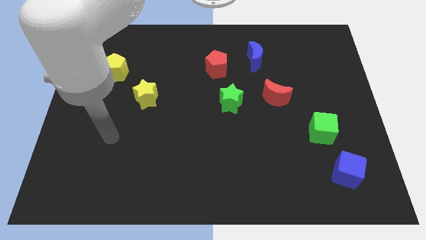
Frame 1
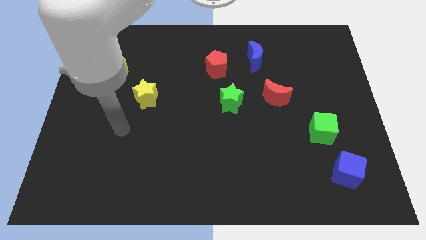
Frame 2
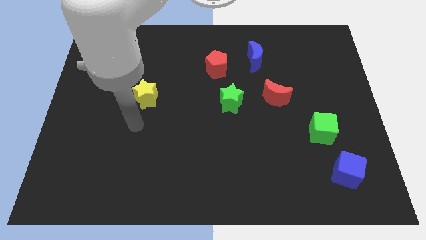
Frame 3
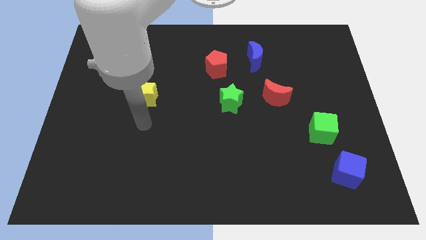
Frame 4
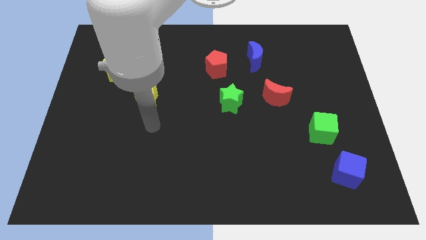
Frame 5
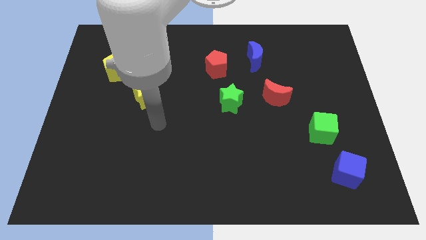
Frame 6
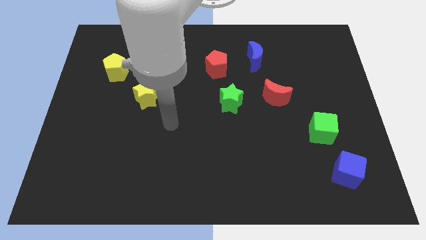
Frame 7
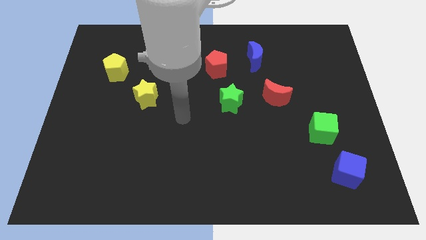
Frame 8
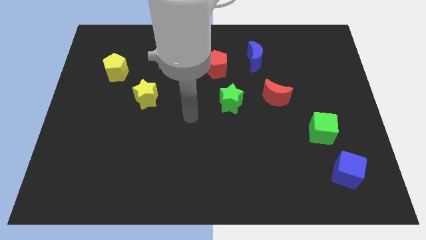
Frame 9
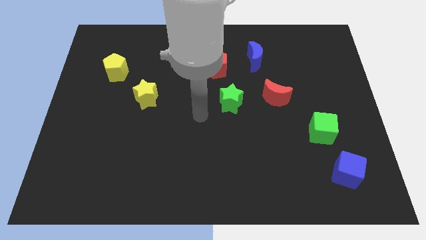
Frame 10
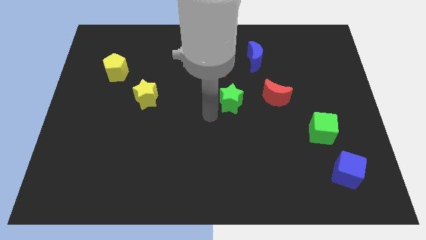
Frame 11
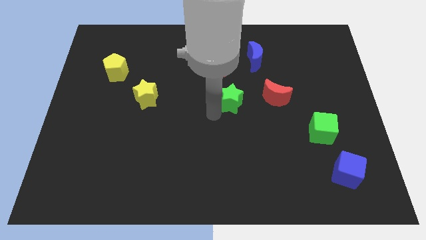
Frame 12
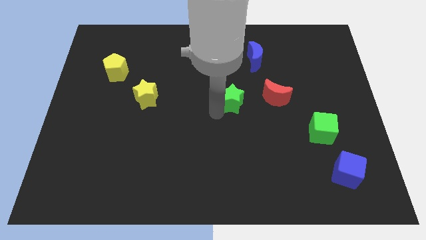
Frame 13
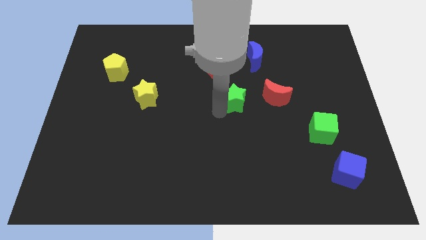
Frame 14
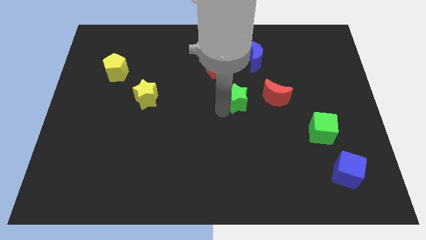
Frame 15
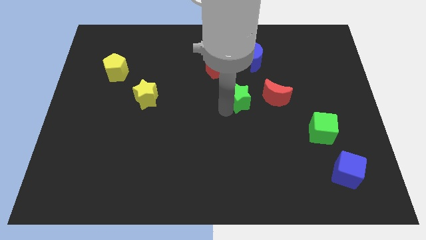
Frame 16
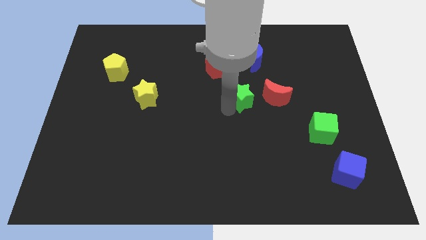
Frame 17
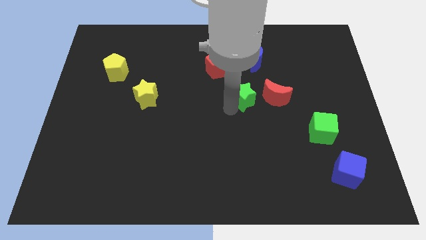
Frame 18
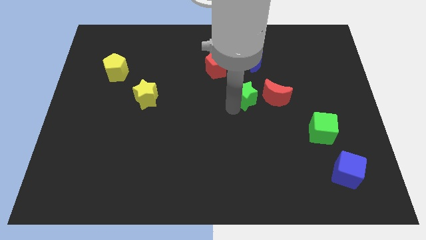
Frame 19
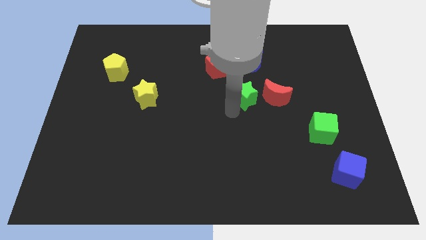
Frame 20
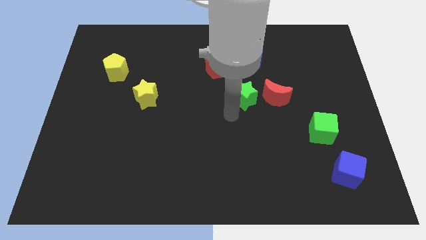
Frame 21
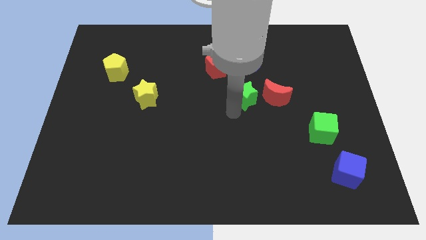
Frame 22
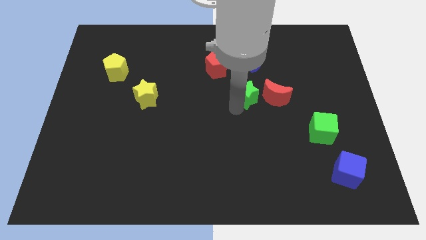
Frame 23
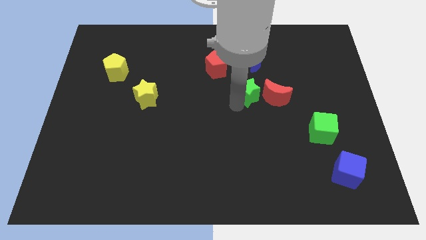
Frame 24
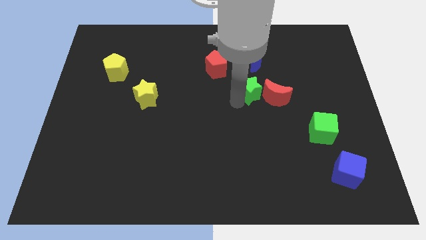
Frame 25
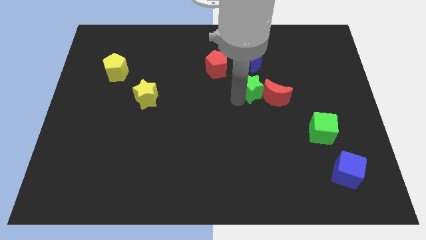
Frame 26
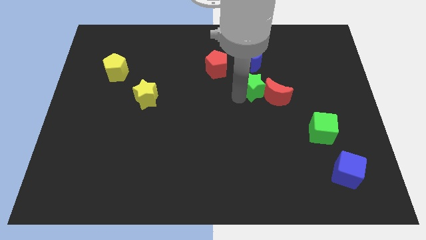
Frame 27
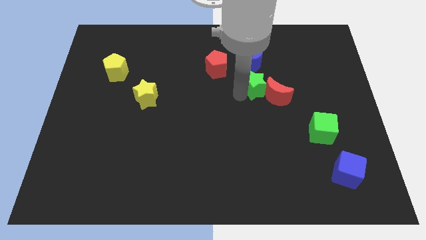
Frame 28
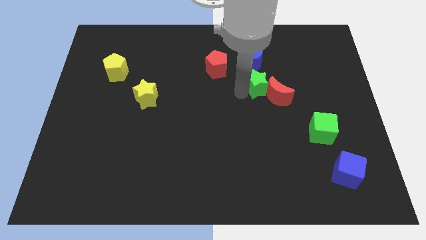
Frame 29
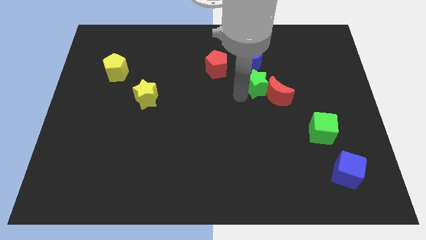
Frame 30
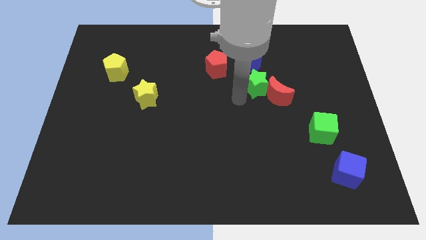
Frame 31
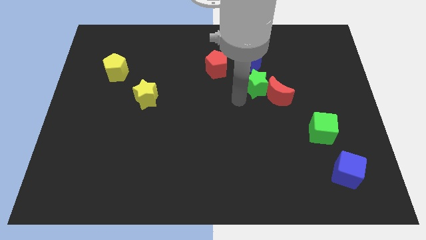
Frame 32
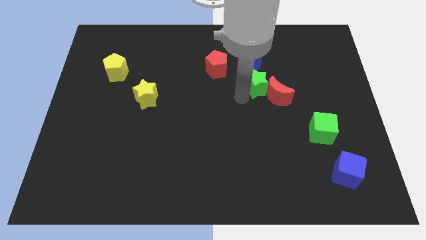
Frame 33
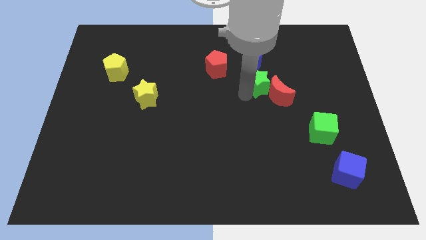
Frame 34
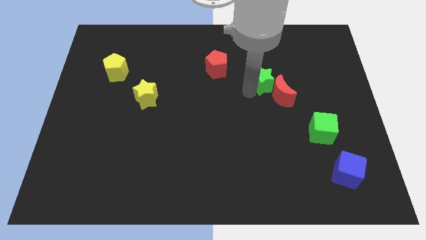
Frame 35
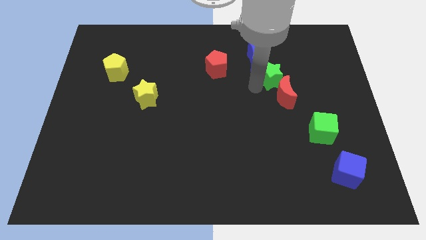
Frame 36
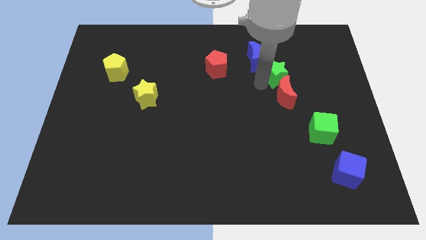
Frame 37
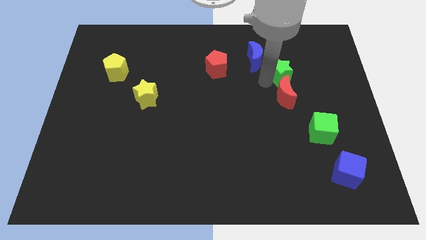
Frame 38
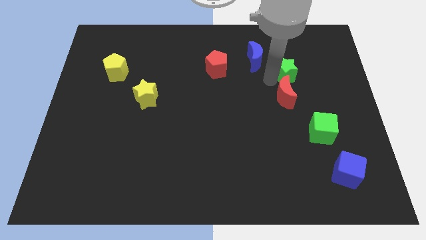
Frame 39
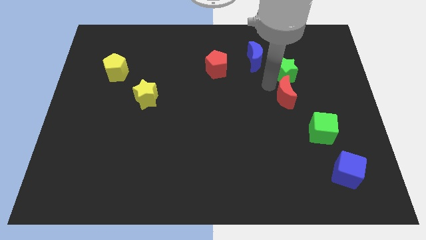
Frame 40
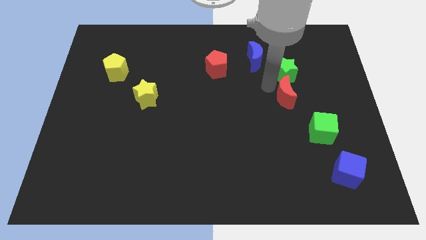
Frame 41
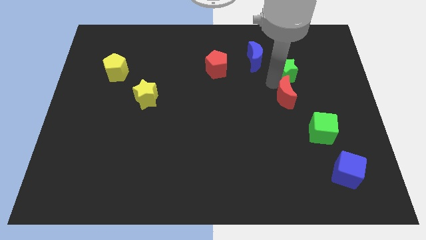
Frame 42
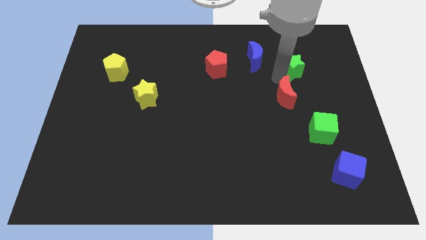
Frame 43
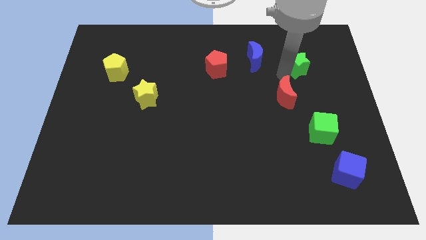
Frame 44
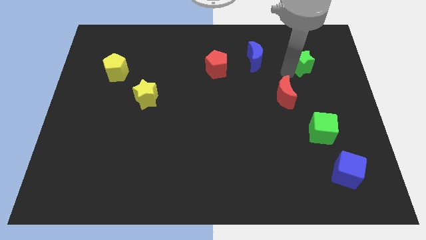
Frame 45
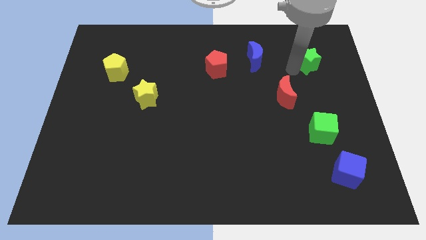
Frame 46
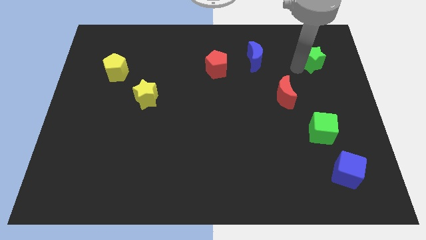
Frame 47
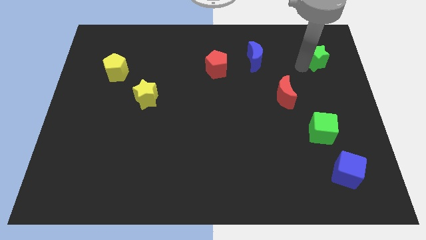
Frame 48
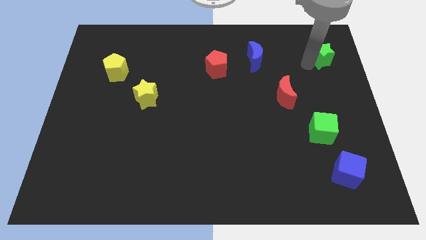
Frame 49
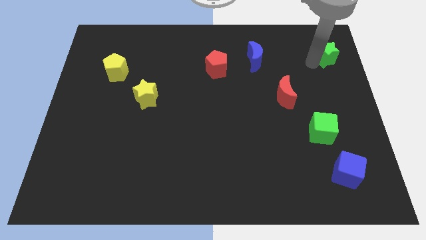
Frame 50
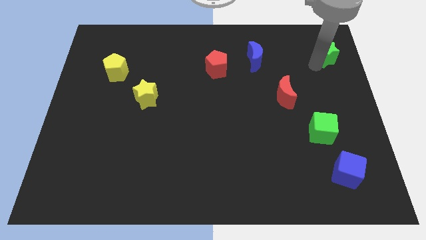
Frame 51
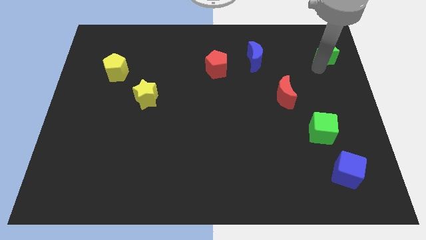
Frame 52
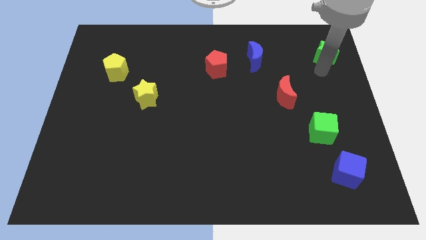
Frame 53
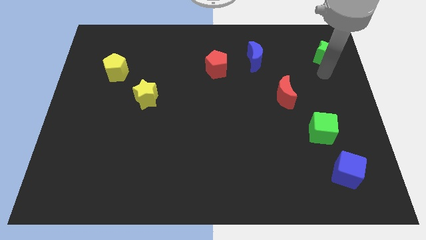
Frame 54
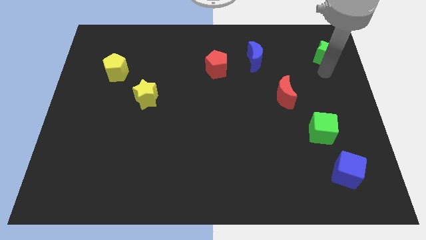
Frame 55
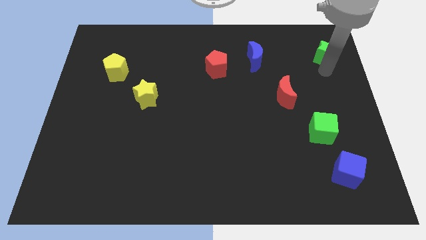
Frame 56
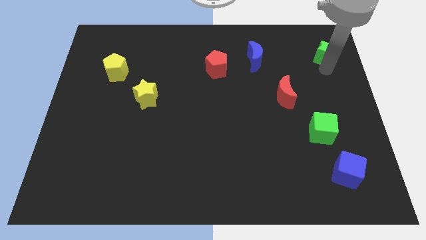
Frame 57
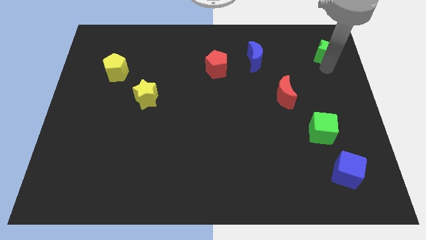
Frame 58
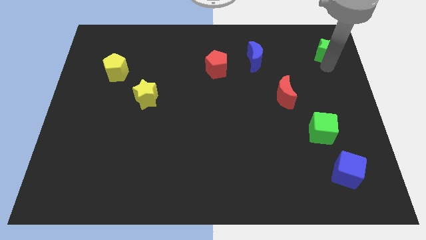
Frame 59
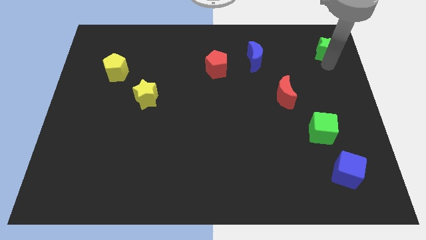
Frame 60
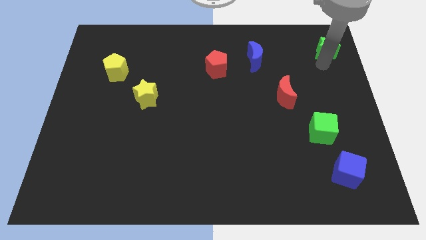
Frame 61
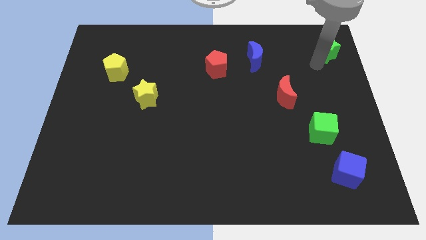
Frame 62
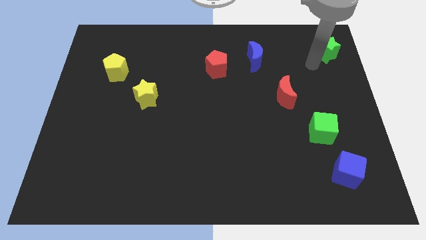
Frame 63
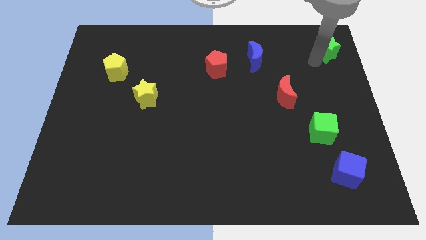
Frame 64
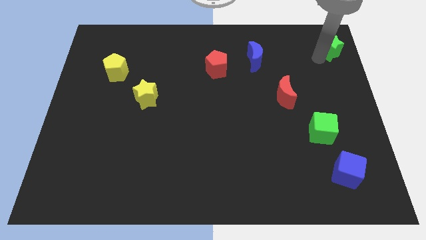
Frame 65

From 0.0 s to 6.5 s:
put the green star to the top right corner
